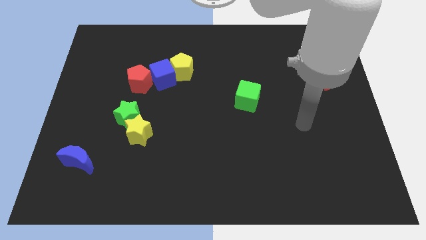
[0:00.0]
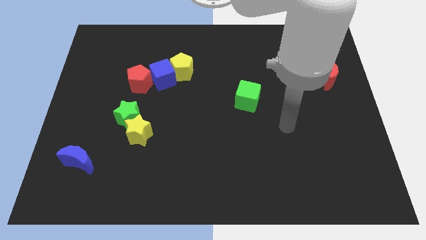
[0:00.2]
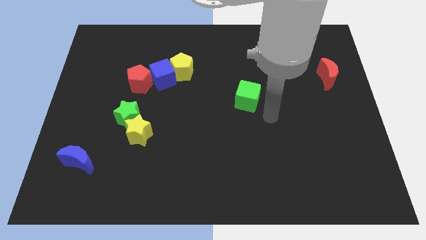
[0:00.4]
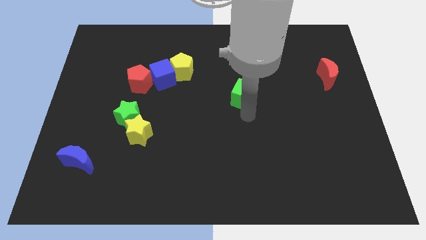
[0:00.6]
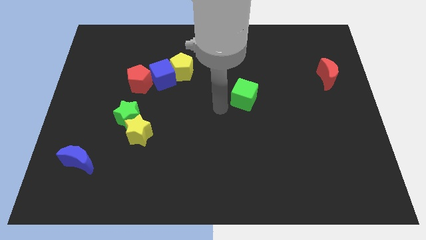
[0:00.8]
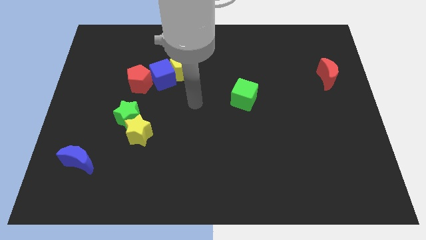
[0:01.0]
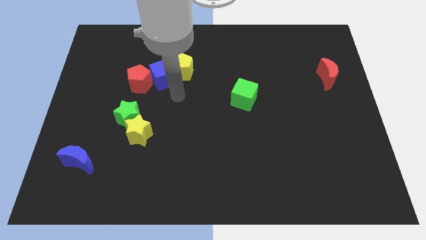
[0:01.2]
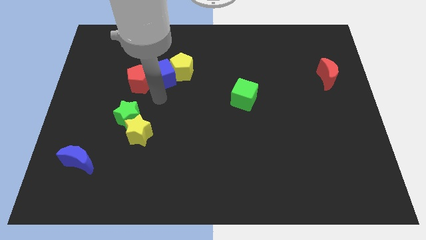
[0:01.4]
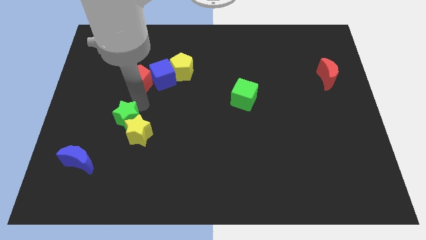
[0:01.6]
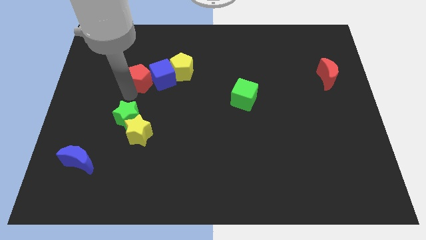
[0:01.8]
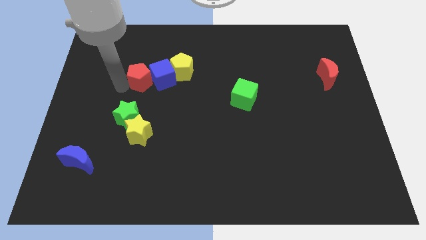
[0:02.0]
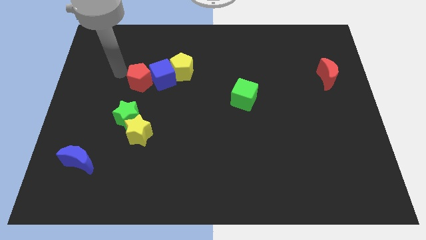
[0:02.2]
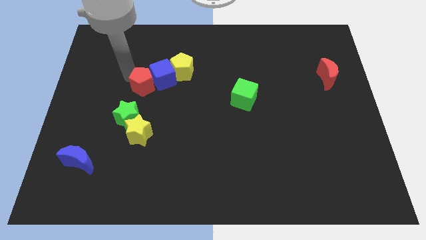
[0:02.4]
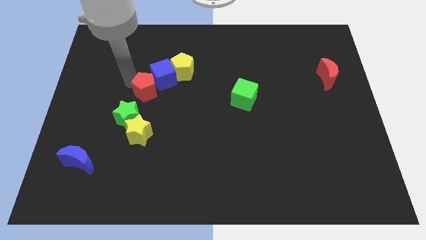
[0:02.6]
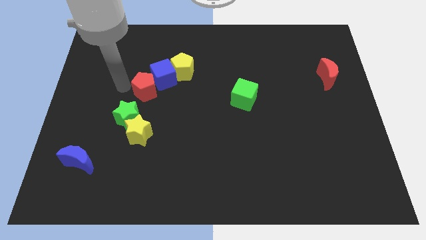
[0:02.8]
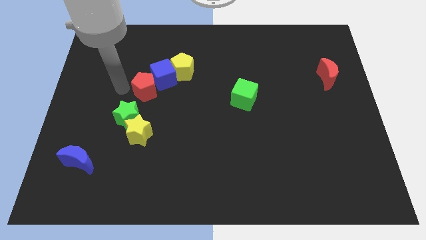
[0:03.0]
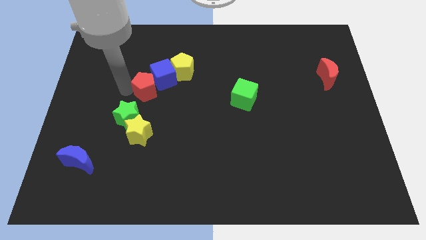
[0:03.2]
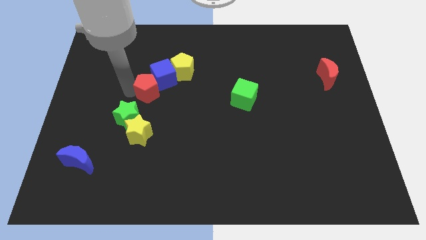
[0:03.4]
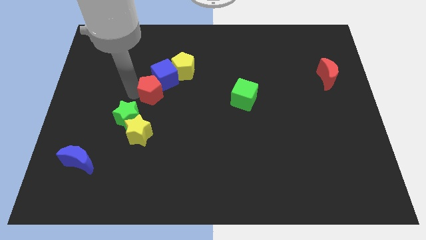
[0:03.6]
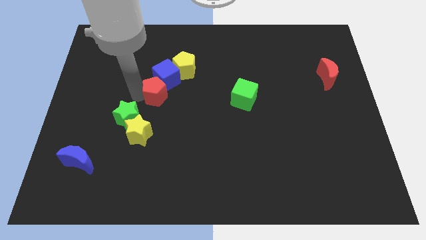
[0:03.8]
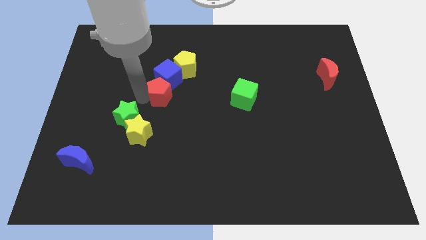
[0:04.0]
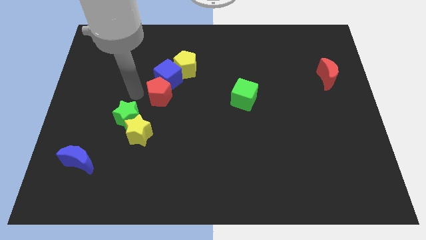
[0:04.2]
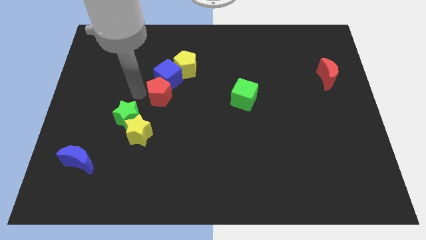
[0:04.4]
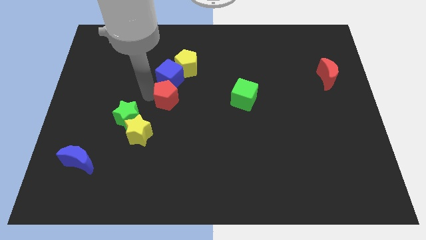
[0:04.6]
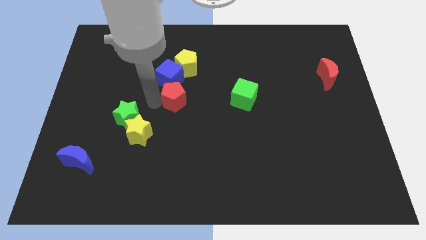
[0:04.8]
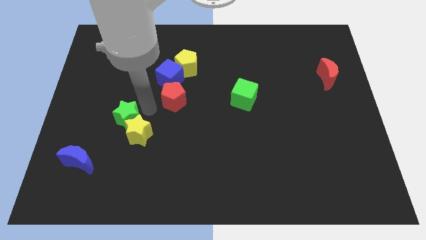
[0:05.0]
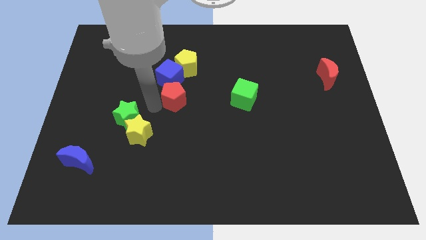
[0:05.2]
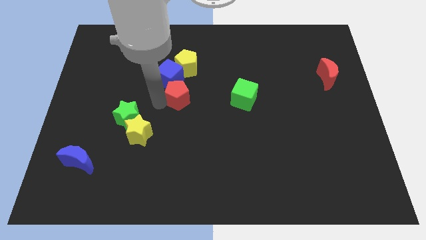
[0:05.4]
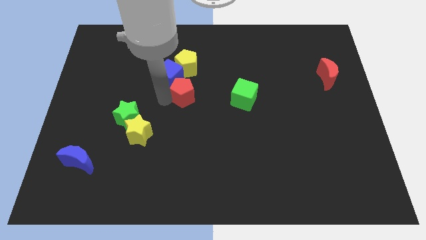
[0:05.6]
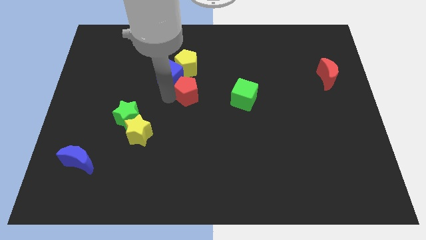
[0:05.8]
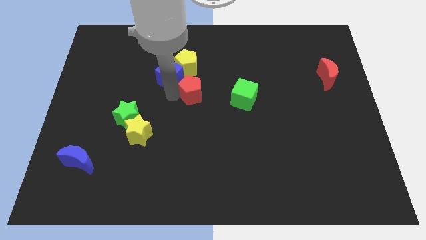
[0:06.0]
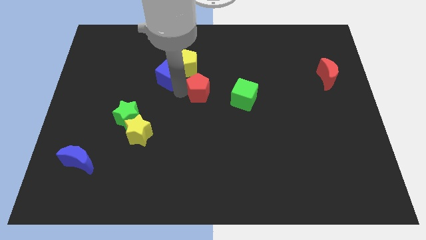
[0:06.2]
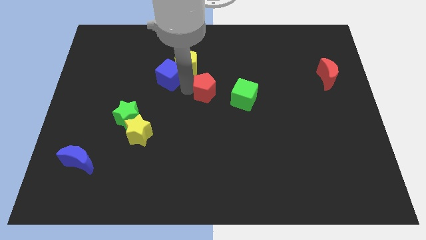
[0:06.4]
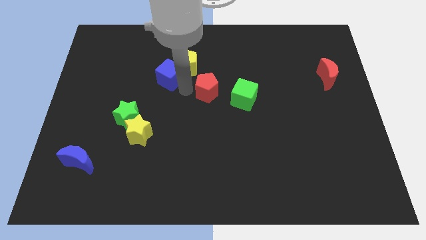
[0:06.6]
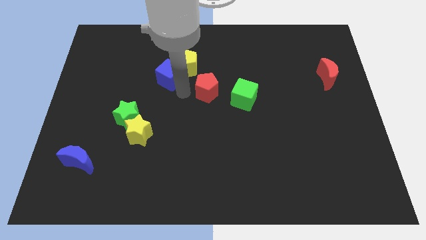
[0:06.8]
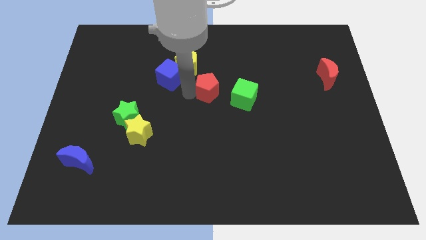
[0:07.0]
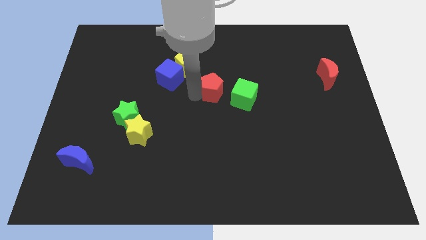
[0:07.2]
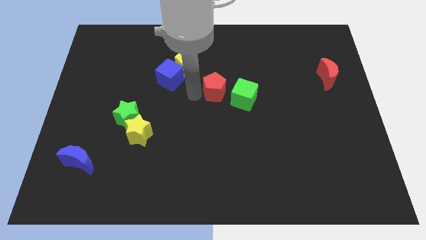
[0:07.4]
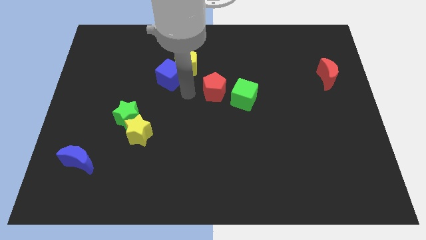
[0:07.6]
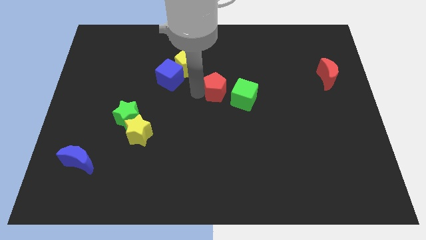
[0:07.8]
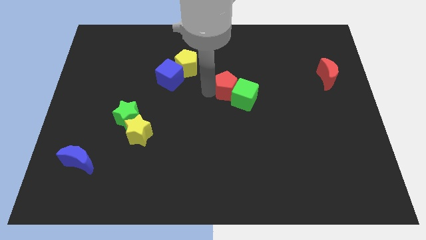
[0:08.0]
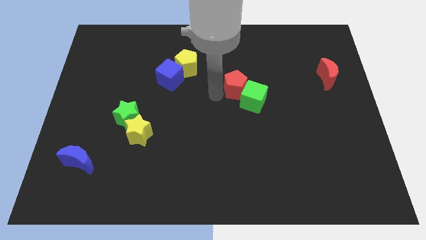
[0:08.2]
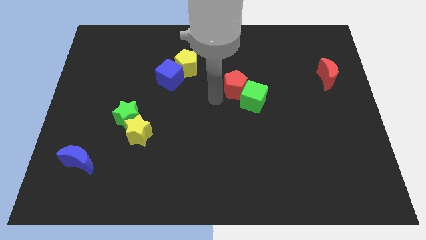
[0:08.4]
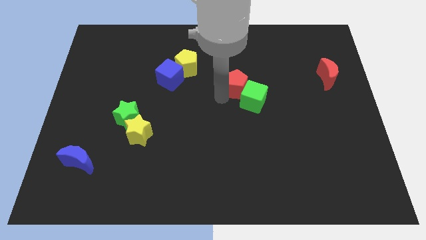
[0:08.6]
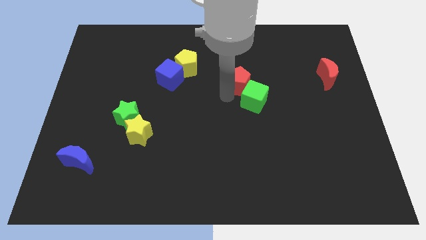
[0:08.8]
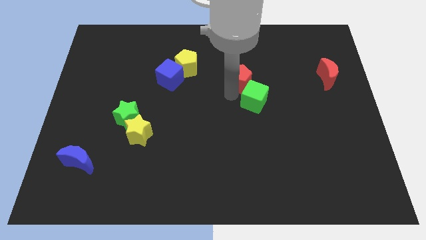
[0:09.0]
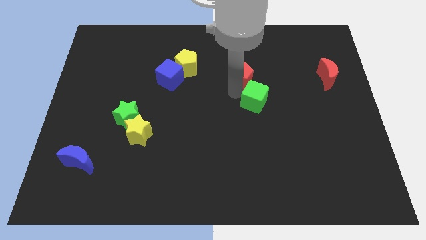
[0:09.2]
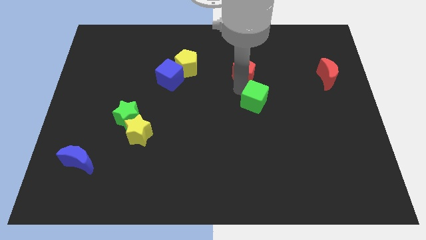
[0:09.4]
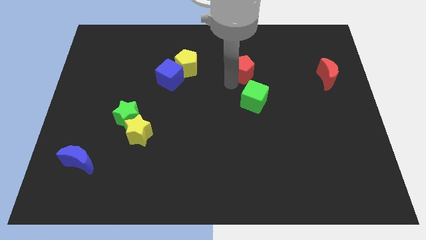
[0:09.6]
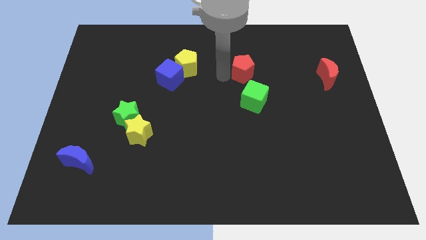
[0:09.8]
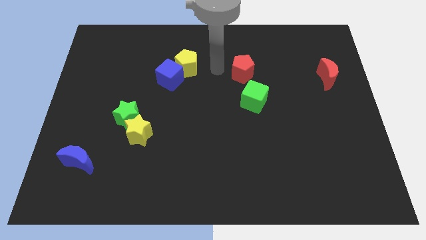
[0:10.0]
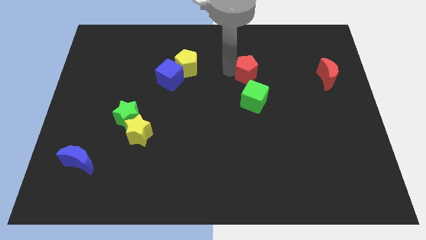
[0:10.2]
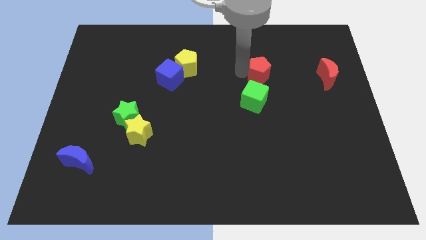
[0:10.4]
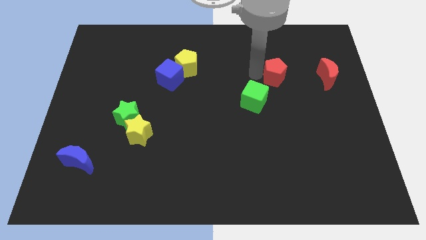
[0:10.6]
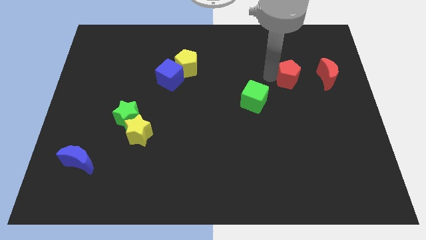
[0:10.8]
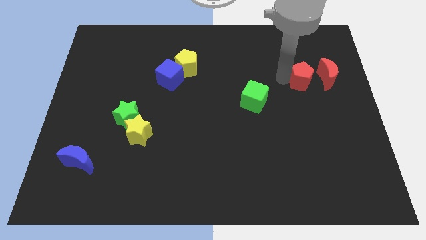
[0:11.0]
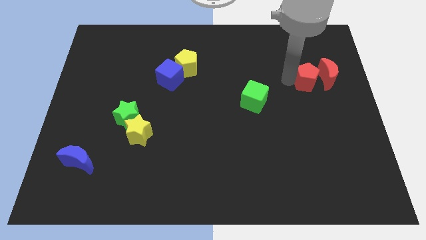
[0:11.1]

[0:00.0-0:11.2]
put the red pentagon next to the red moon

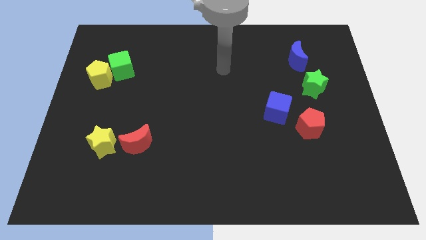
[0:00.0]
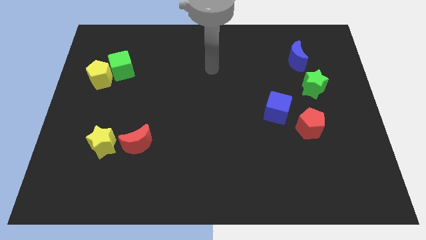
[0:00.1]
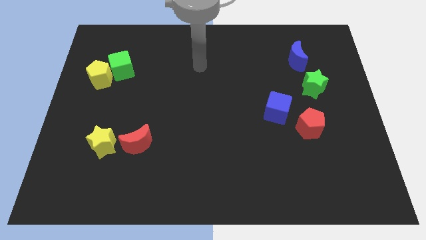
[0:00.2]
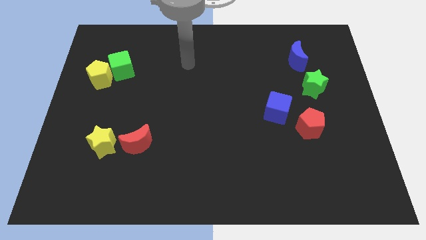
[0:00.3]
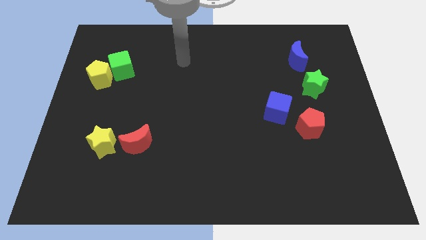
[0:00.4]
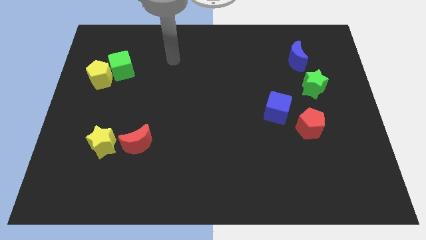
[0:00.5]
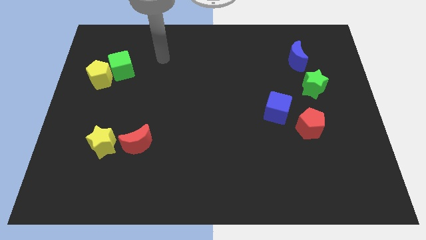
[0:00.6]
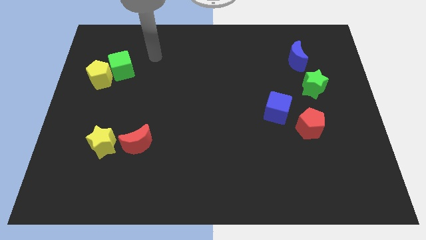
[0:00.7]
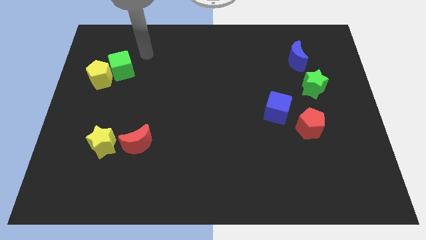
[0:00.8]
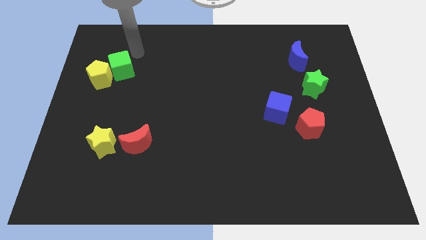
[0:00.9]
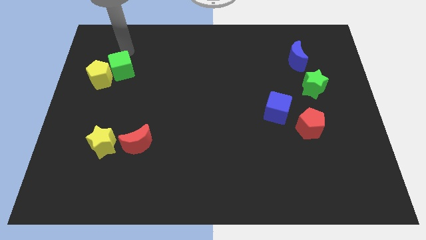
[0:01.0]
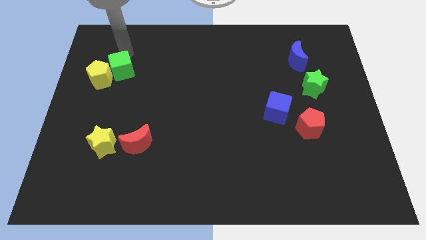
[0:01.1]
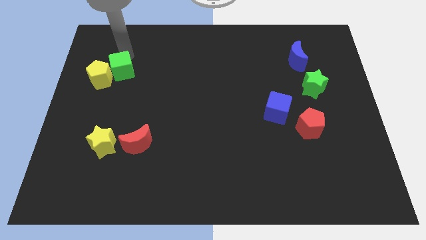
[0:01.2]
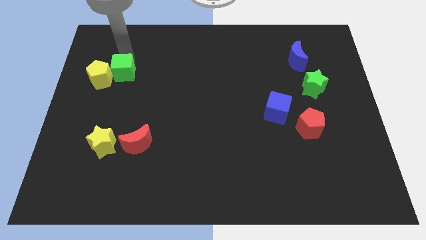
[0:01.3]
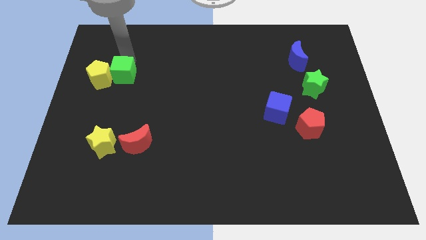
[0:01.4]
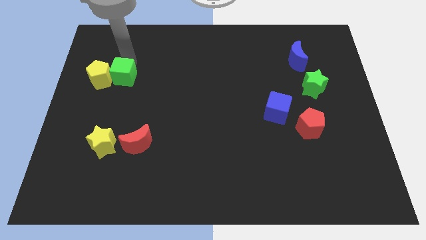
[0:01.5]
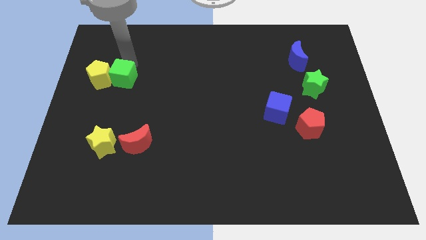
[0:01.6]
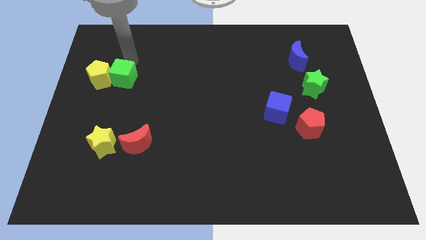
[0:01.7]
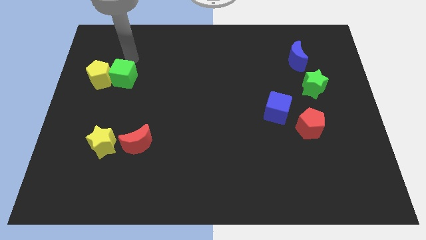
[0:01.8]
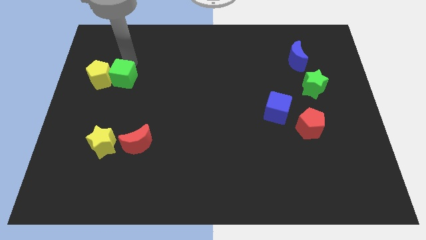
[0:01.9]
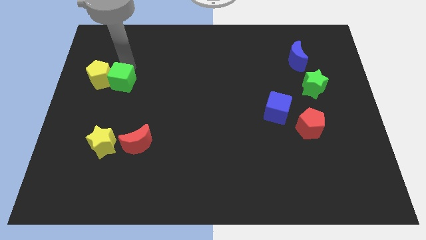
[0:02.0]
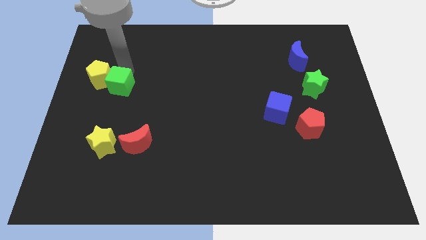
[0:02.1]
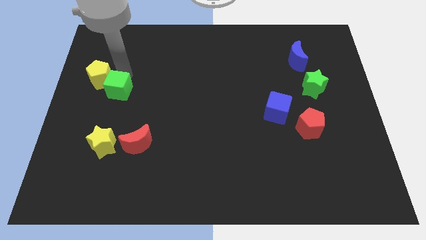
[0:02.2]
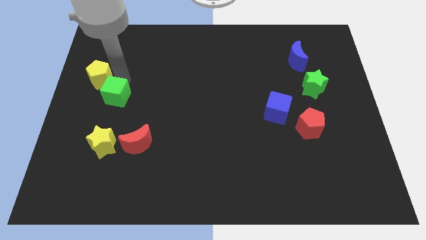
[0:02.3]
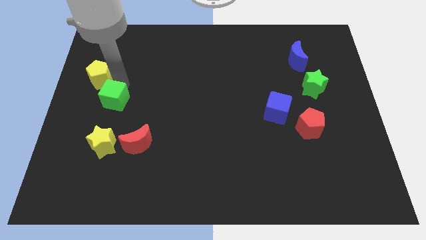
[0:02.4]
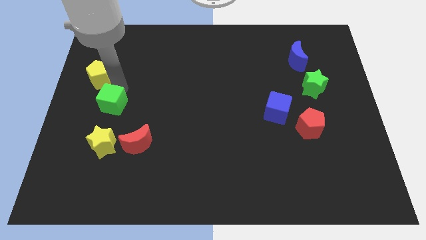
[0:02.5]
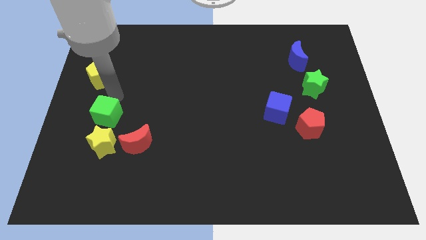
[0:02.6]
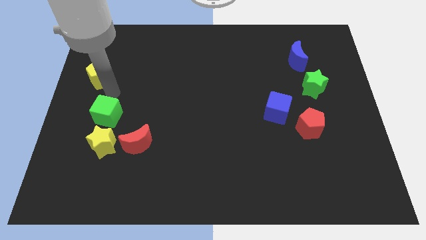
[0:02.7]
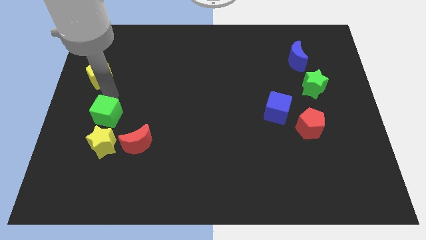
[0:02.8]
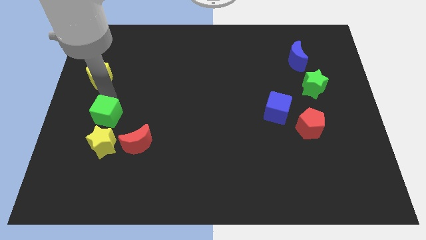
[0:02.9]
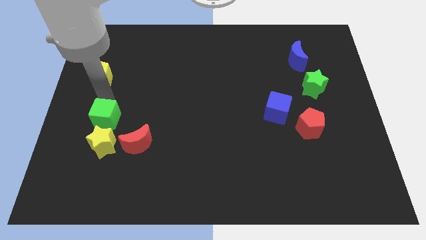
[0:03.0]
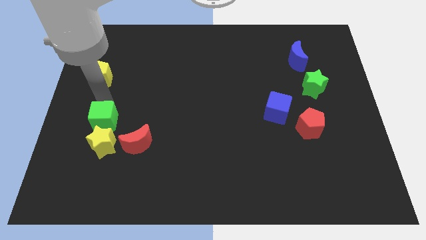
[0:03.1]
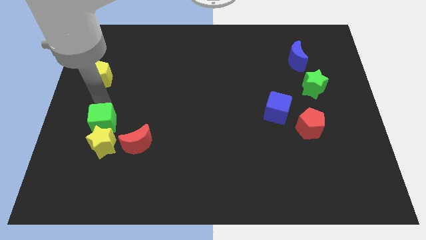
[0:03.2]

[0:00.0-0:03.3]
put the green cube towards the yellow star
